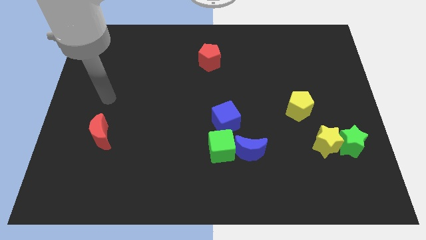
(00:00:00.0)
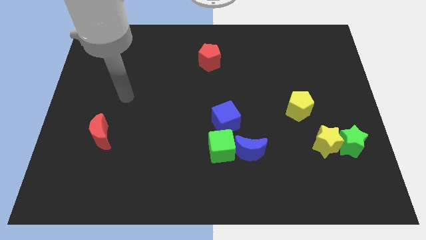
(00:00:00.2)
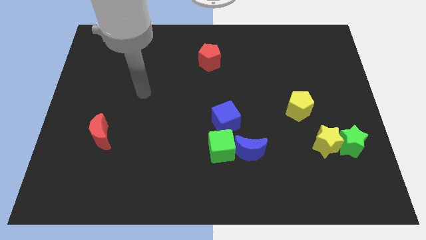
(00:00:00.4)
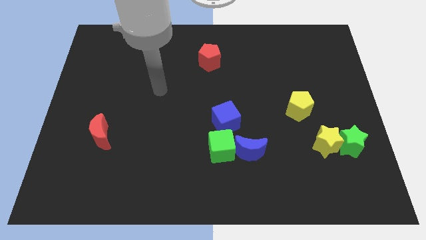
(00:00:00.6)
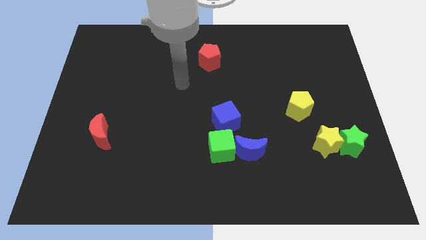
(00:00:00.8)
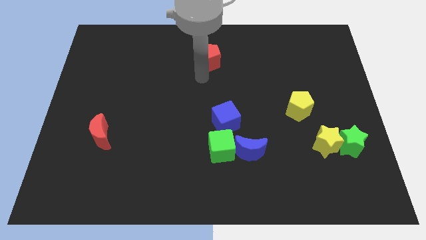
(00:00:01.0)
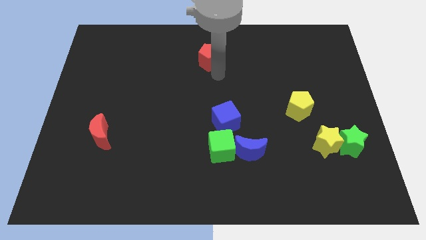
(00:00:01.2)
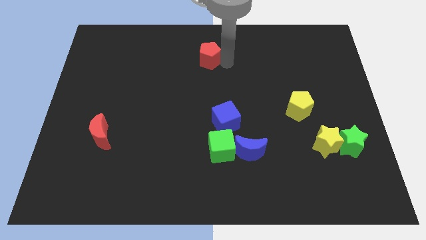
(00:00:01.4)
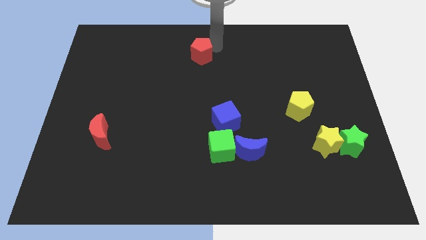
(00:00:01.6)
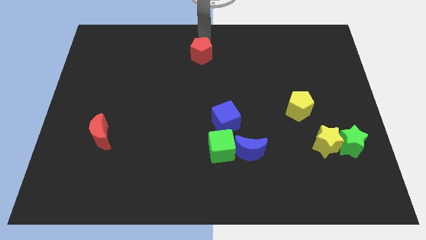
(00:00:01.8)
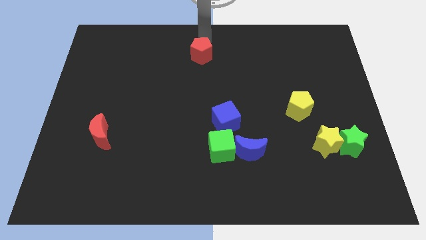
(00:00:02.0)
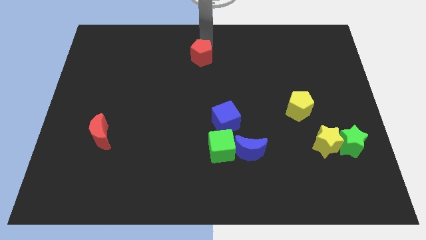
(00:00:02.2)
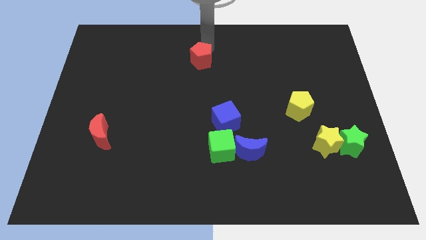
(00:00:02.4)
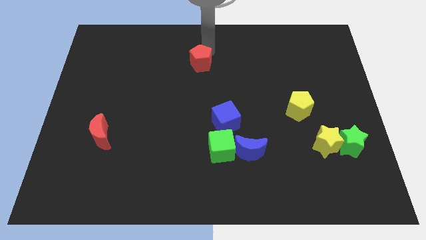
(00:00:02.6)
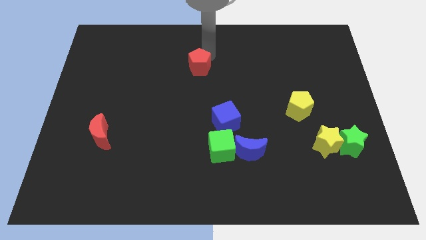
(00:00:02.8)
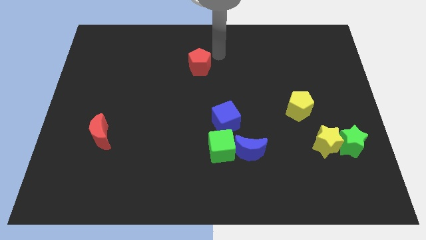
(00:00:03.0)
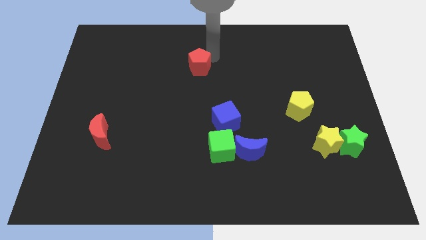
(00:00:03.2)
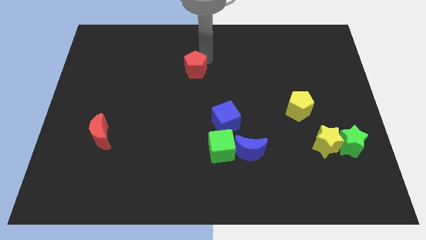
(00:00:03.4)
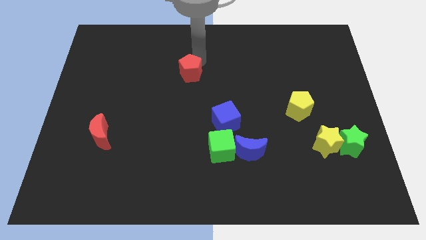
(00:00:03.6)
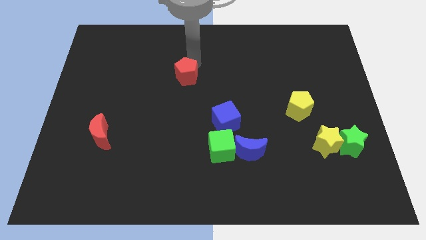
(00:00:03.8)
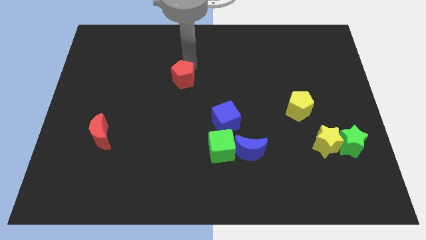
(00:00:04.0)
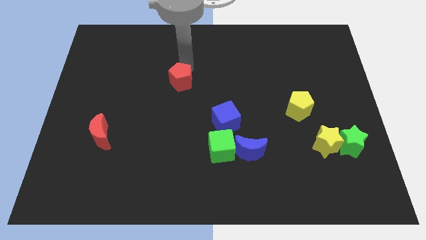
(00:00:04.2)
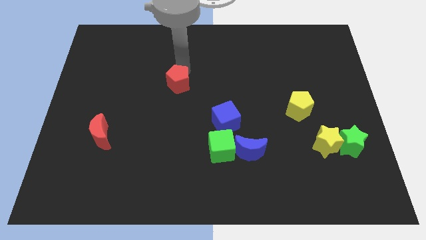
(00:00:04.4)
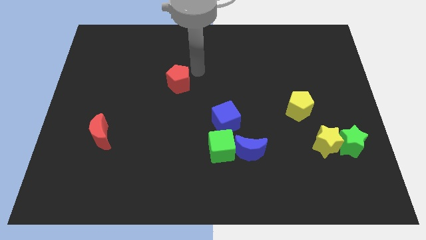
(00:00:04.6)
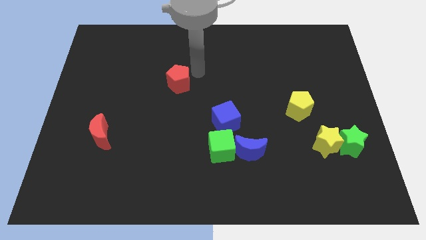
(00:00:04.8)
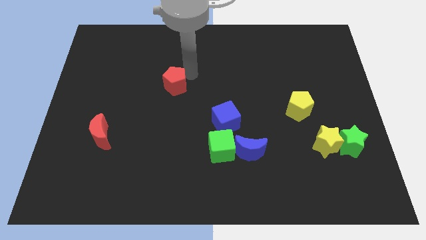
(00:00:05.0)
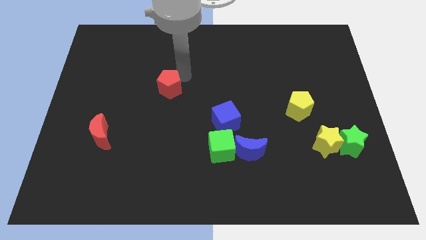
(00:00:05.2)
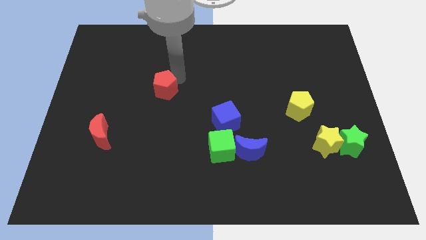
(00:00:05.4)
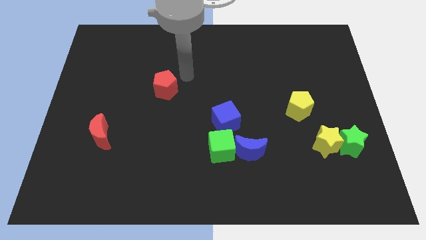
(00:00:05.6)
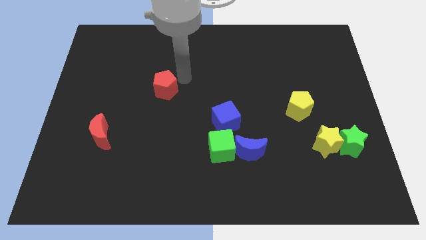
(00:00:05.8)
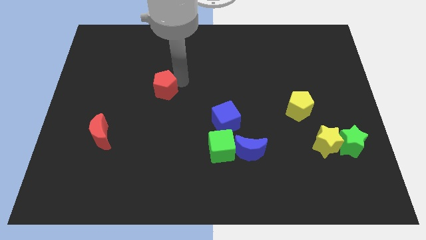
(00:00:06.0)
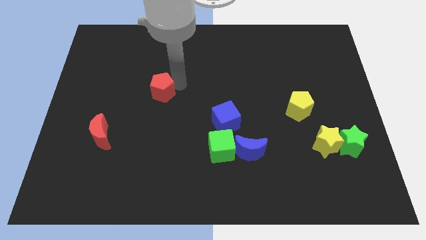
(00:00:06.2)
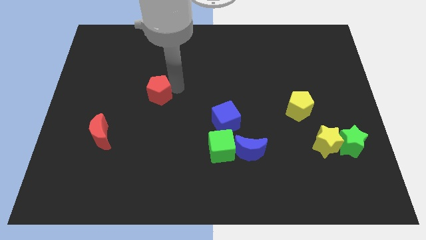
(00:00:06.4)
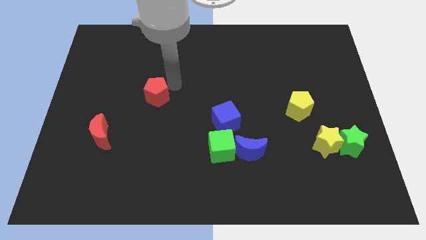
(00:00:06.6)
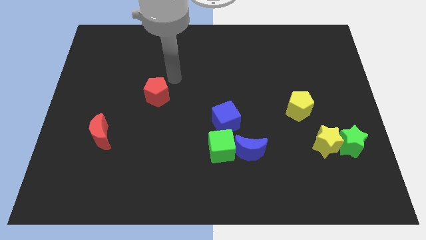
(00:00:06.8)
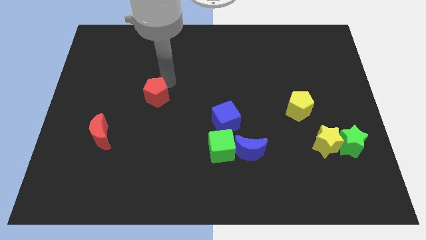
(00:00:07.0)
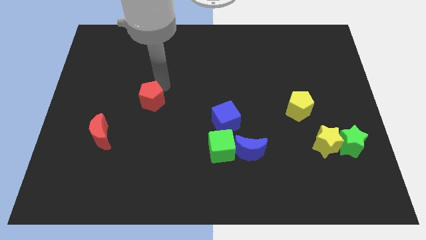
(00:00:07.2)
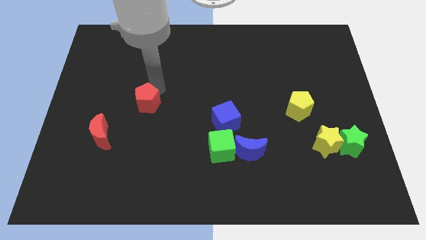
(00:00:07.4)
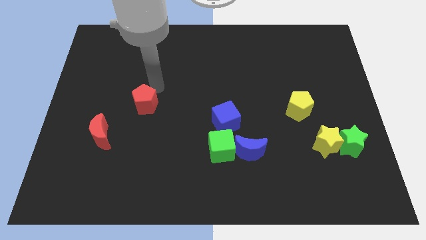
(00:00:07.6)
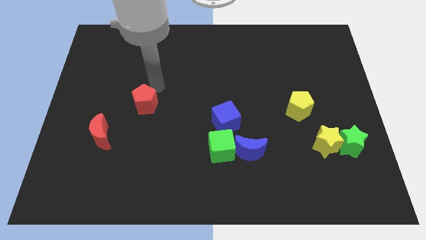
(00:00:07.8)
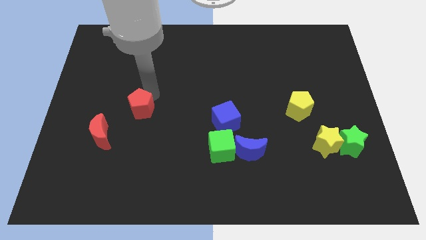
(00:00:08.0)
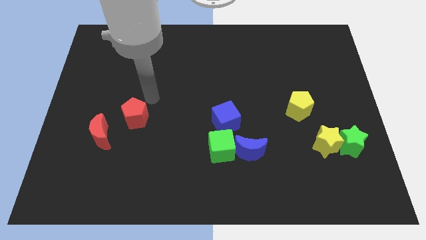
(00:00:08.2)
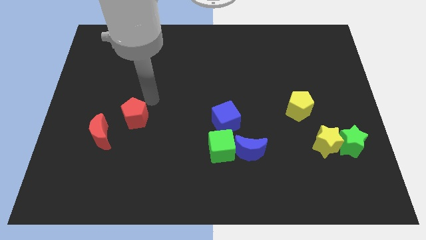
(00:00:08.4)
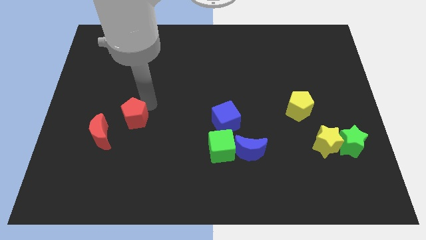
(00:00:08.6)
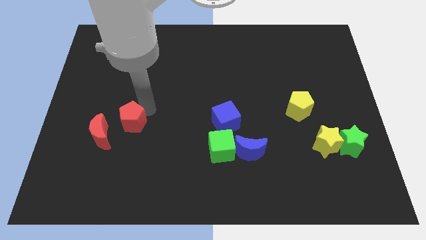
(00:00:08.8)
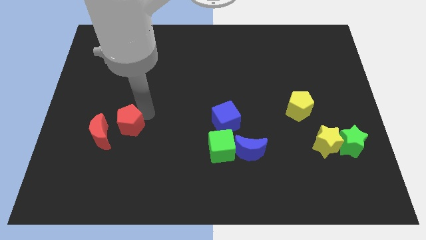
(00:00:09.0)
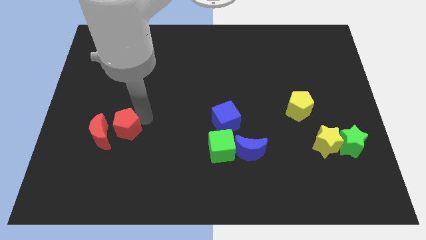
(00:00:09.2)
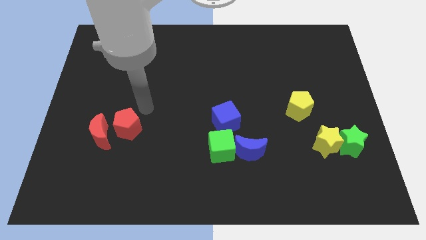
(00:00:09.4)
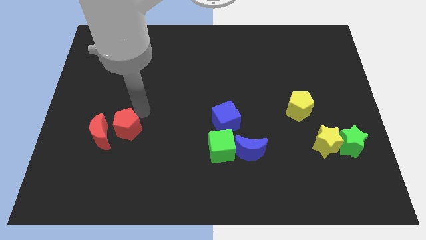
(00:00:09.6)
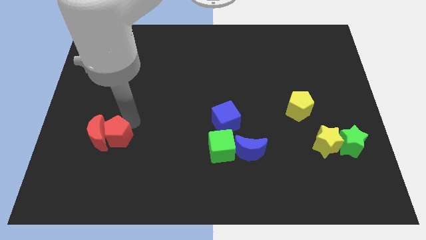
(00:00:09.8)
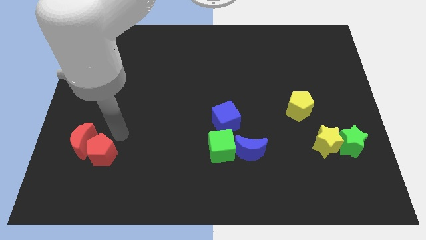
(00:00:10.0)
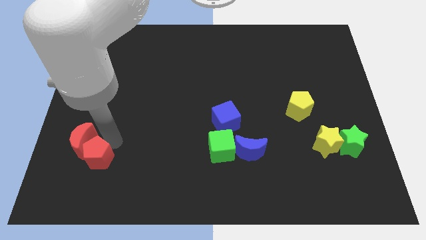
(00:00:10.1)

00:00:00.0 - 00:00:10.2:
move the red pentagon below the red moon

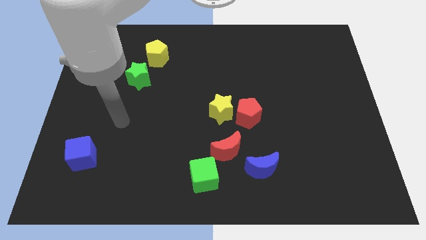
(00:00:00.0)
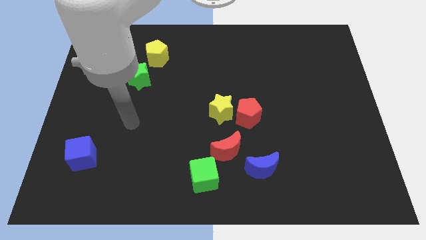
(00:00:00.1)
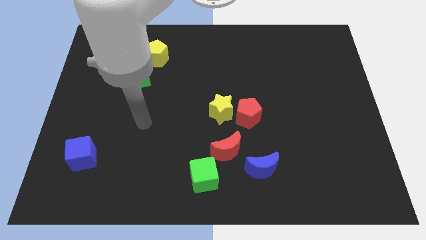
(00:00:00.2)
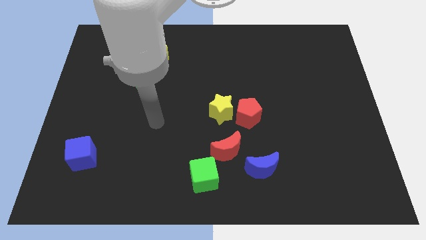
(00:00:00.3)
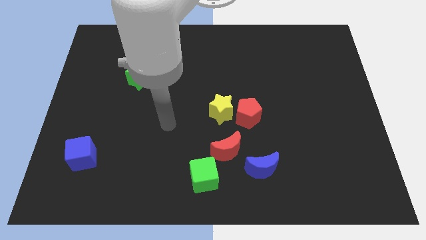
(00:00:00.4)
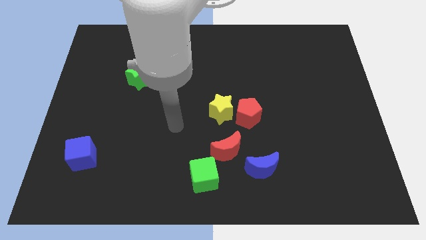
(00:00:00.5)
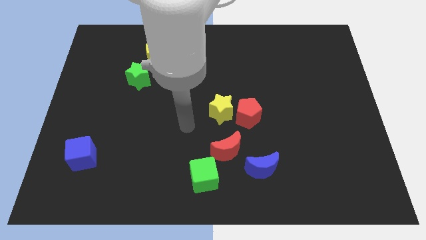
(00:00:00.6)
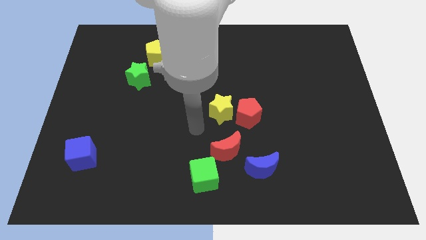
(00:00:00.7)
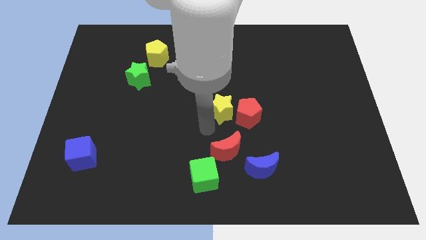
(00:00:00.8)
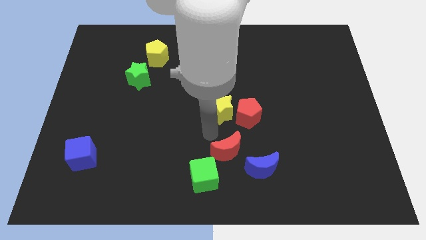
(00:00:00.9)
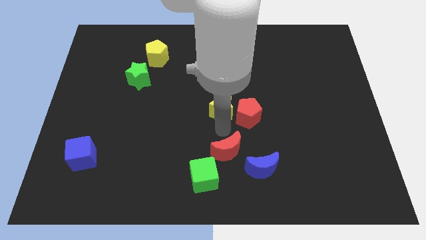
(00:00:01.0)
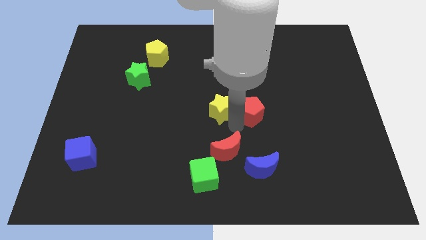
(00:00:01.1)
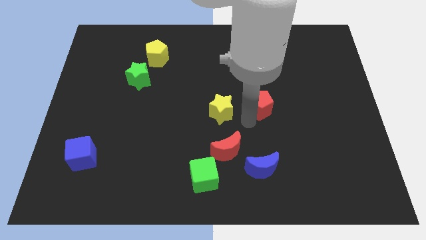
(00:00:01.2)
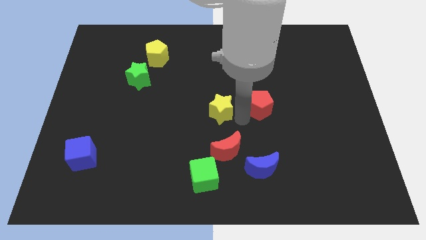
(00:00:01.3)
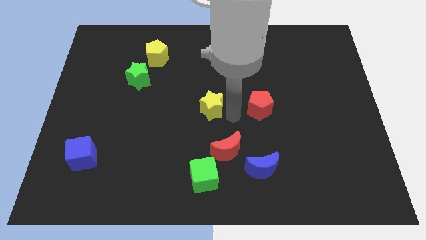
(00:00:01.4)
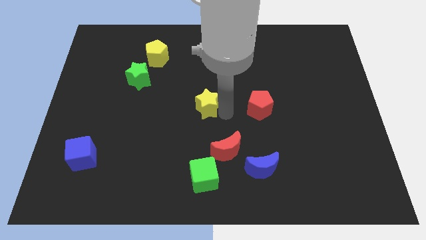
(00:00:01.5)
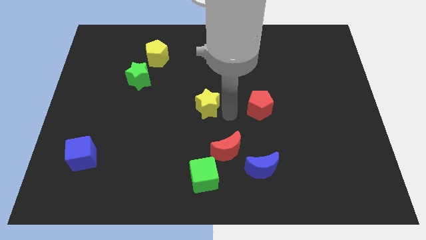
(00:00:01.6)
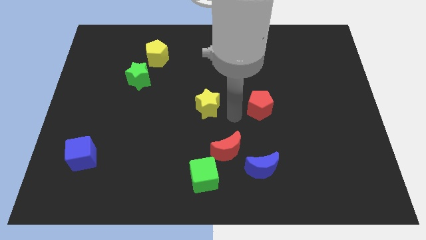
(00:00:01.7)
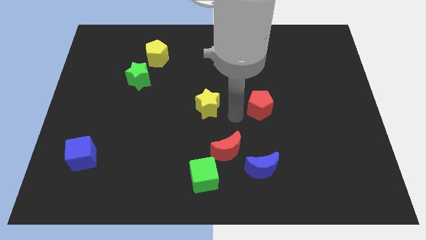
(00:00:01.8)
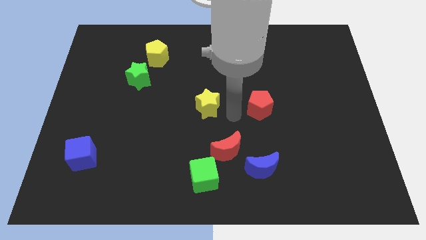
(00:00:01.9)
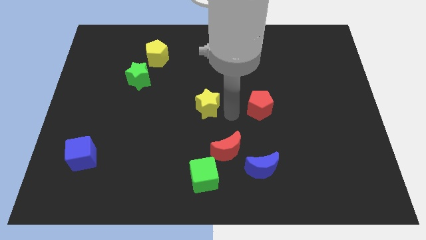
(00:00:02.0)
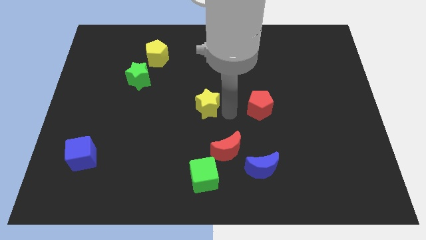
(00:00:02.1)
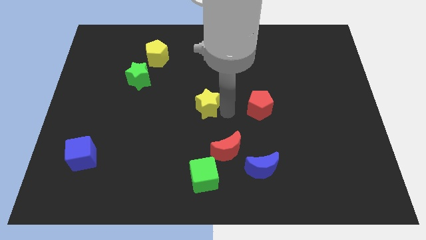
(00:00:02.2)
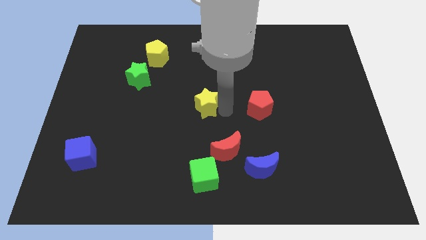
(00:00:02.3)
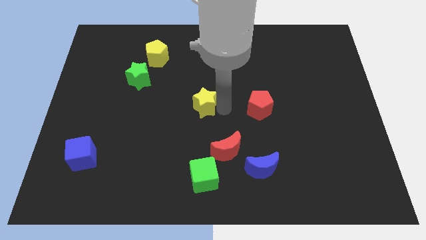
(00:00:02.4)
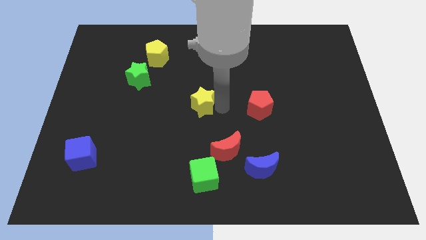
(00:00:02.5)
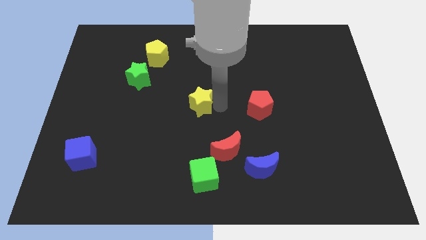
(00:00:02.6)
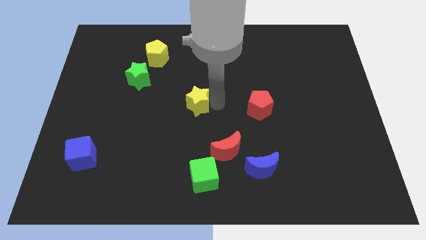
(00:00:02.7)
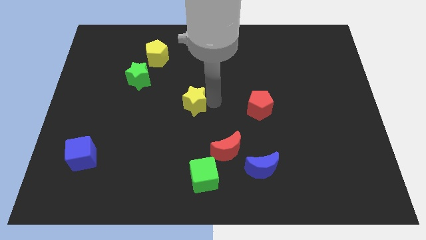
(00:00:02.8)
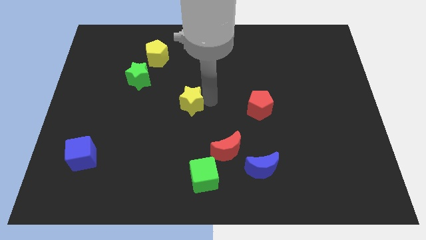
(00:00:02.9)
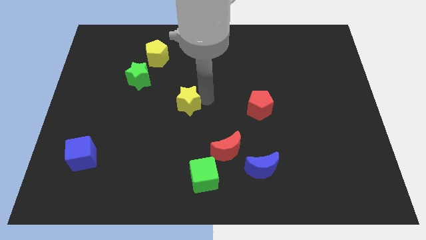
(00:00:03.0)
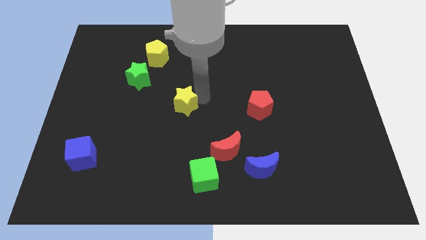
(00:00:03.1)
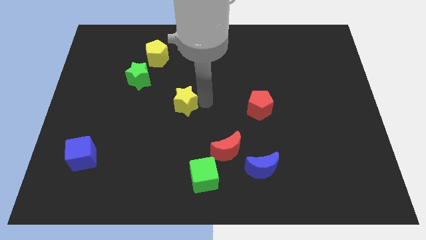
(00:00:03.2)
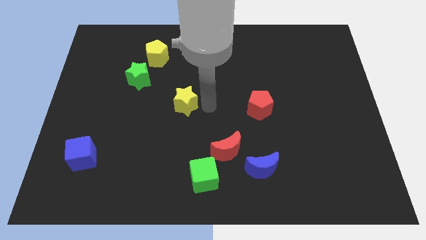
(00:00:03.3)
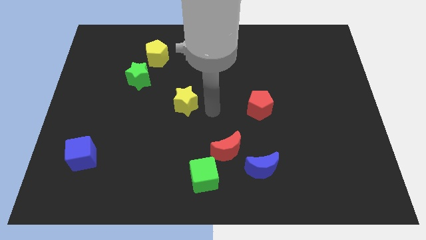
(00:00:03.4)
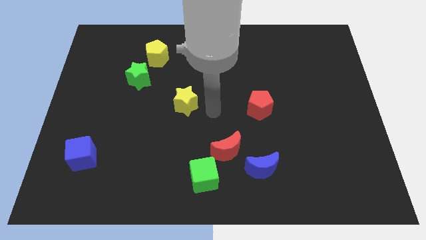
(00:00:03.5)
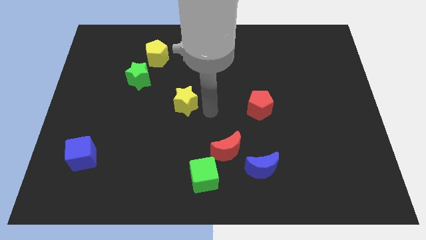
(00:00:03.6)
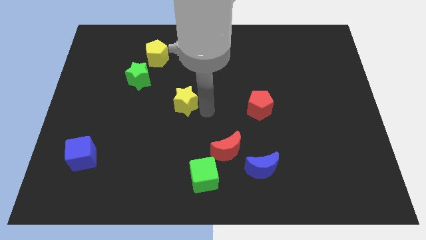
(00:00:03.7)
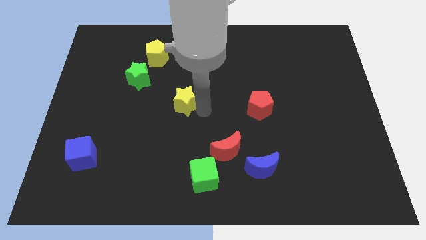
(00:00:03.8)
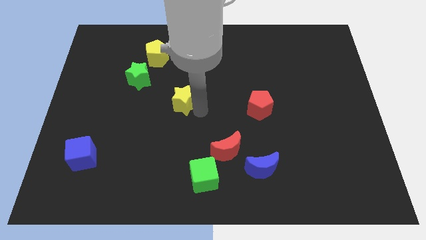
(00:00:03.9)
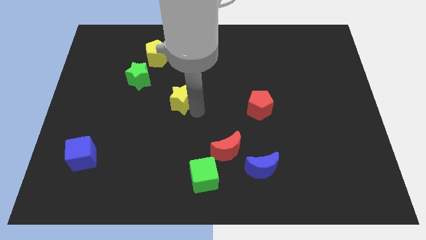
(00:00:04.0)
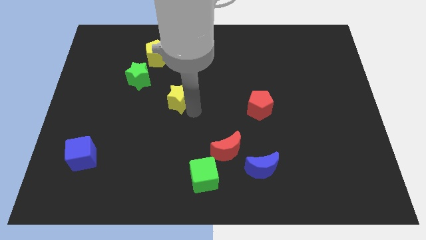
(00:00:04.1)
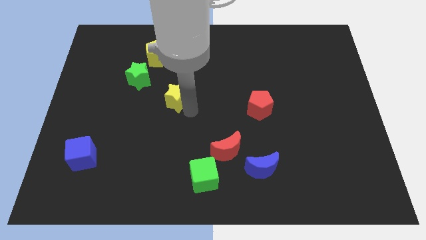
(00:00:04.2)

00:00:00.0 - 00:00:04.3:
move the yellow star to the bottom right side of the green star
